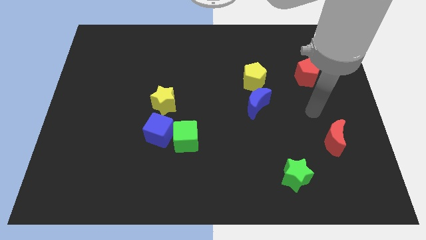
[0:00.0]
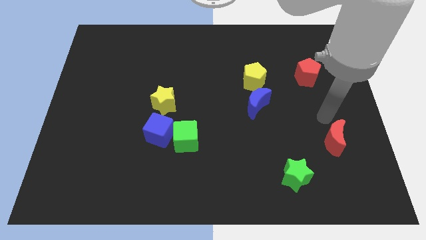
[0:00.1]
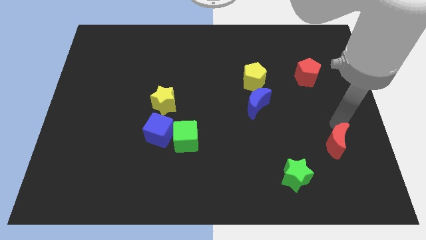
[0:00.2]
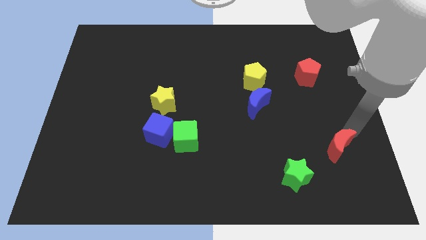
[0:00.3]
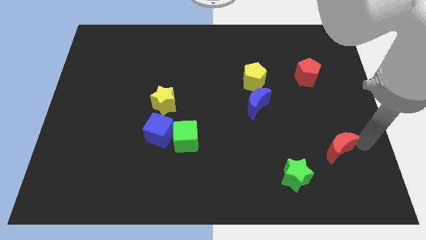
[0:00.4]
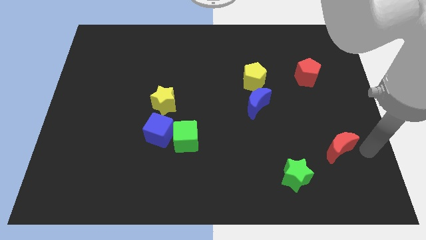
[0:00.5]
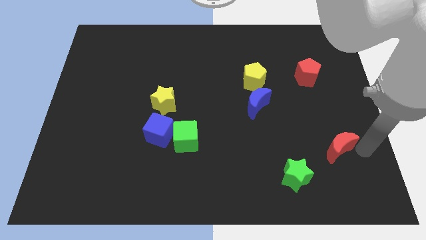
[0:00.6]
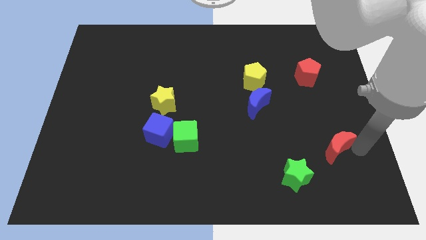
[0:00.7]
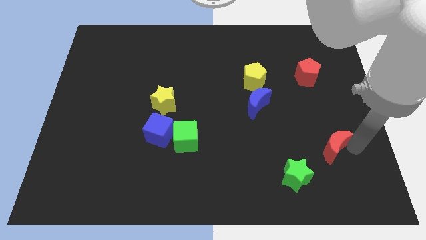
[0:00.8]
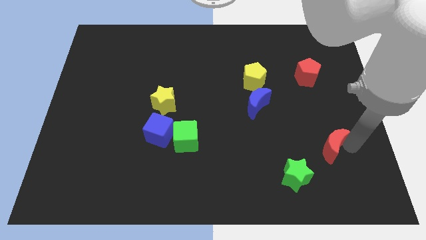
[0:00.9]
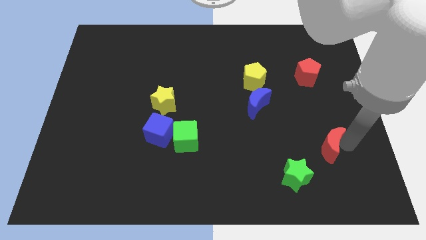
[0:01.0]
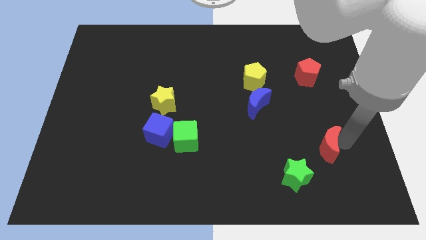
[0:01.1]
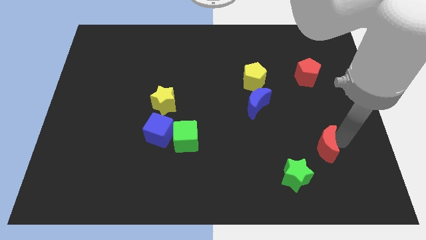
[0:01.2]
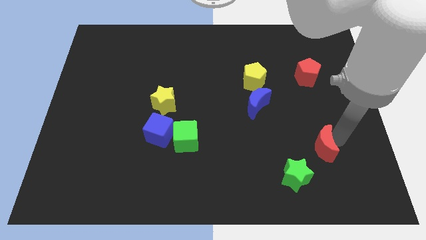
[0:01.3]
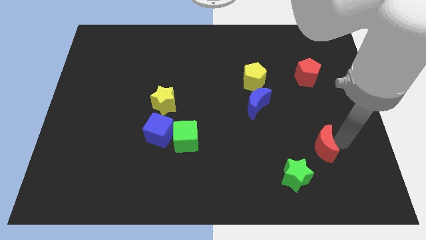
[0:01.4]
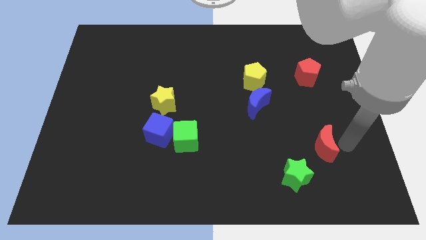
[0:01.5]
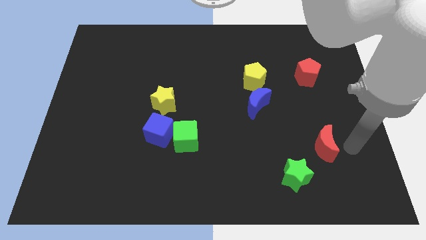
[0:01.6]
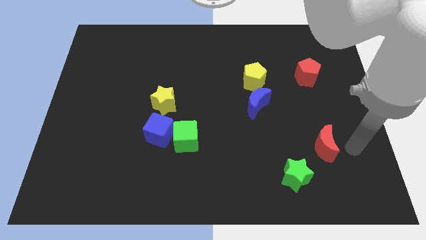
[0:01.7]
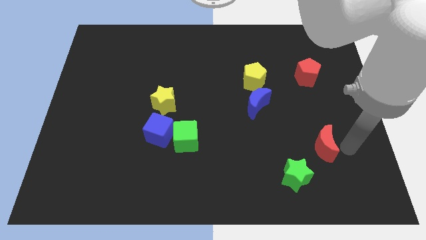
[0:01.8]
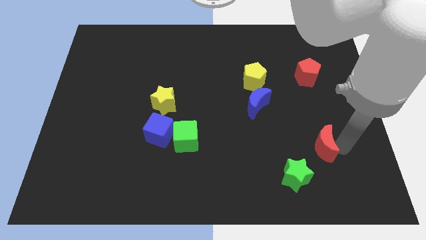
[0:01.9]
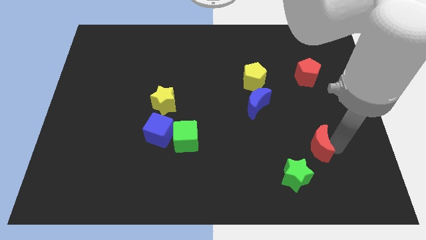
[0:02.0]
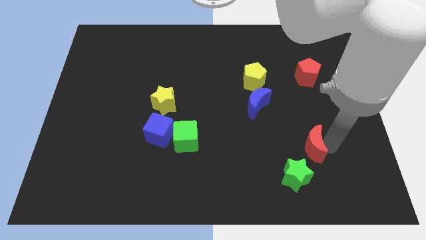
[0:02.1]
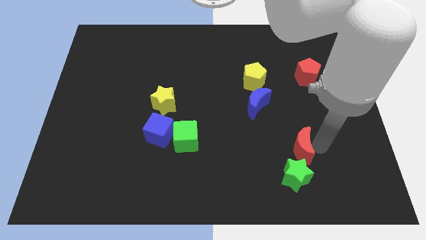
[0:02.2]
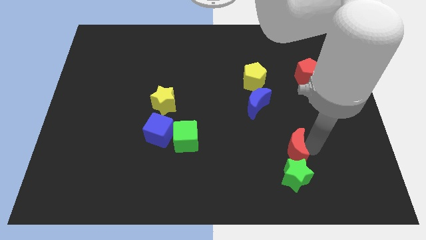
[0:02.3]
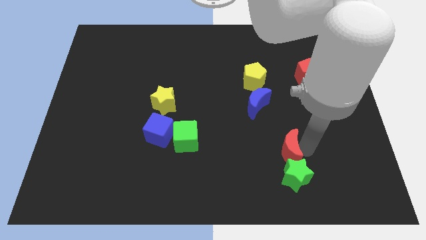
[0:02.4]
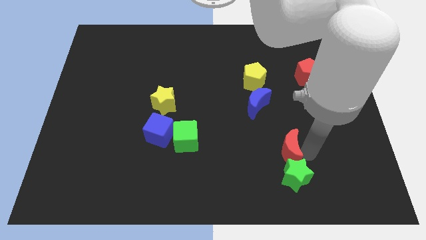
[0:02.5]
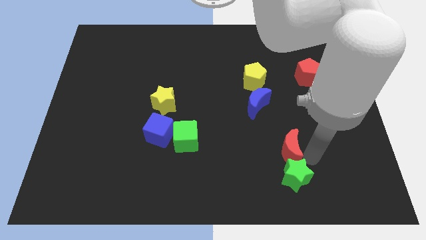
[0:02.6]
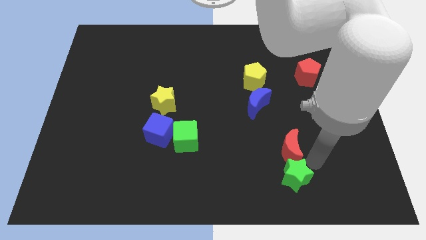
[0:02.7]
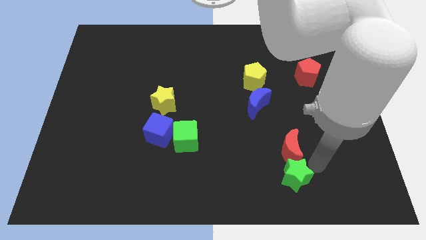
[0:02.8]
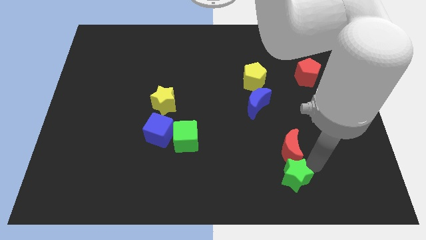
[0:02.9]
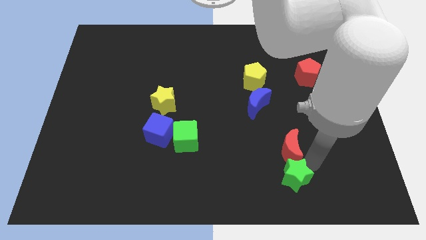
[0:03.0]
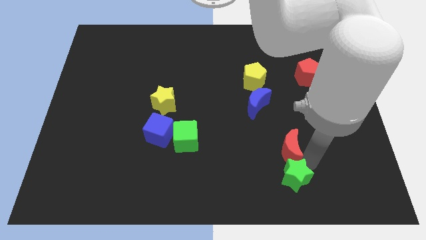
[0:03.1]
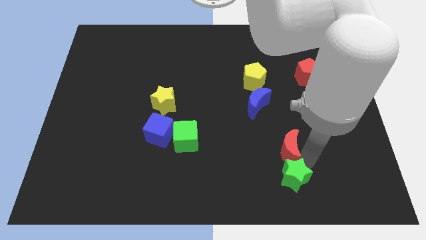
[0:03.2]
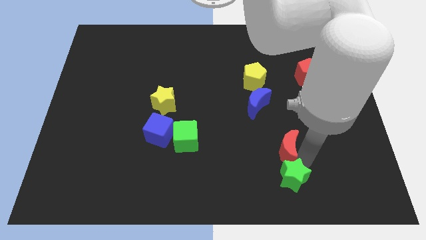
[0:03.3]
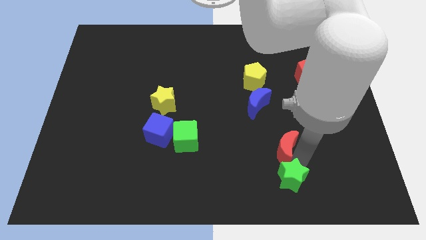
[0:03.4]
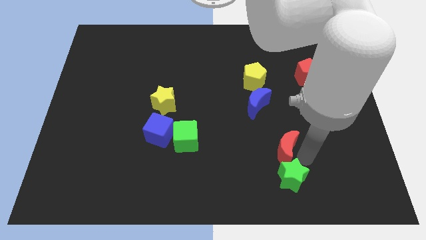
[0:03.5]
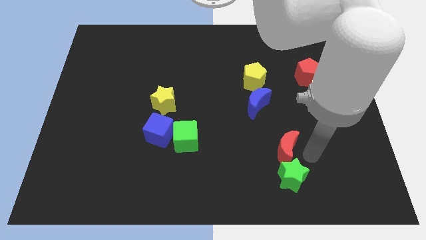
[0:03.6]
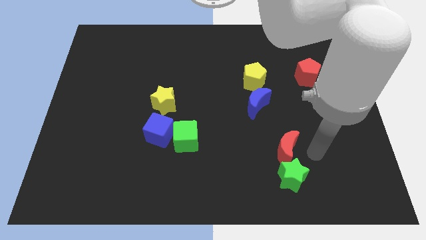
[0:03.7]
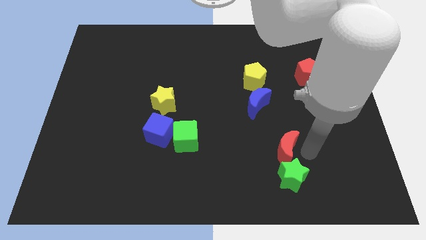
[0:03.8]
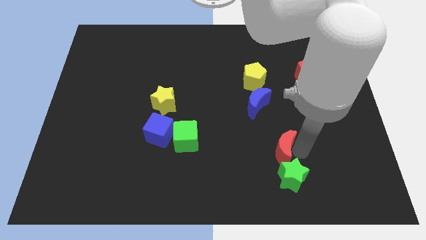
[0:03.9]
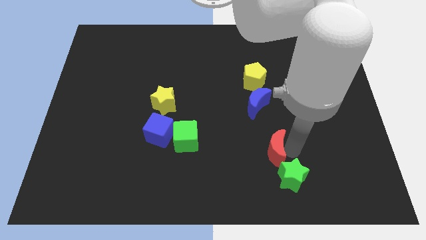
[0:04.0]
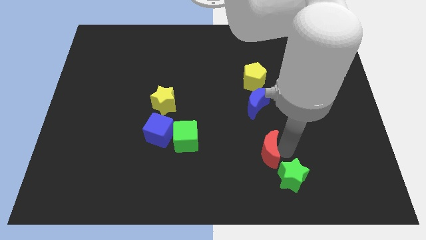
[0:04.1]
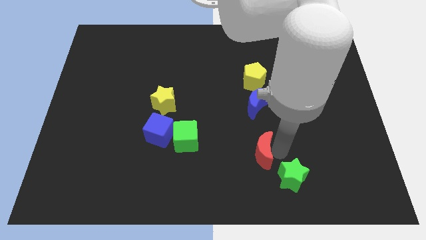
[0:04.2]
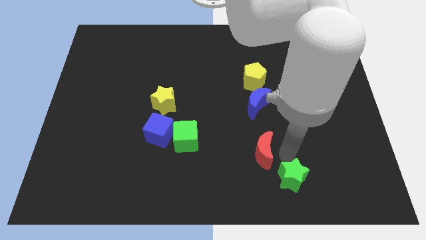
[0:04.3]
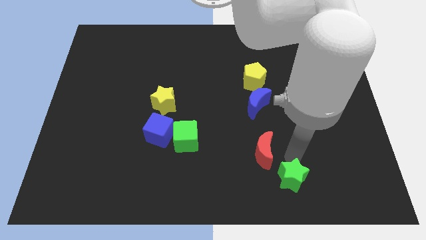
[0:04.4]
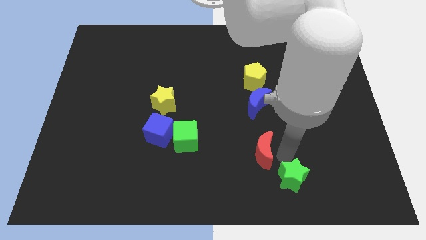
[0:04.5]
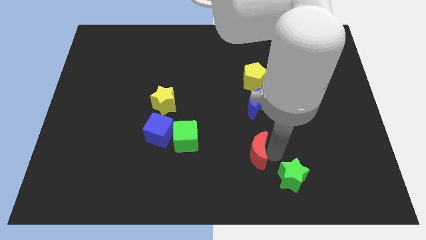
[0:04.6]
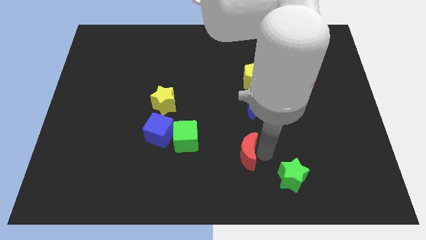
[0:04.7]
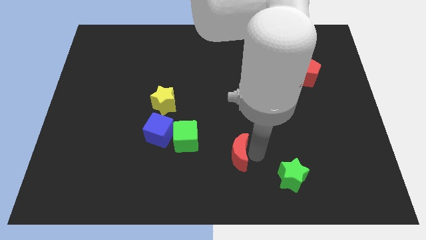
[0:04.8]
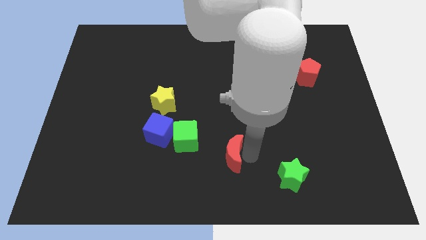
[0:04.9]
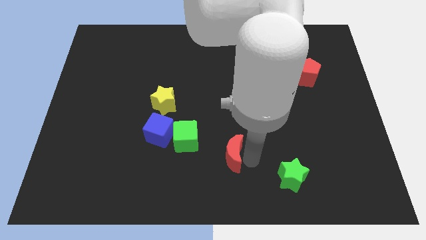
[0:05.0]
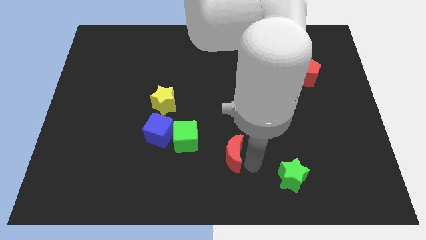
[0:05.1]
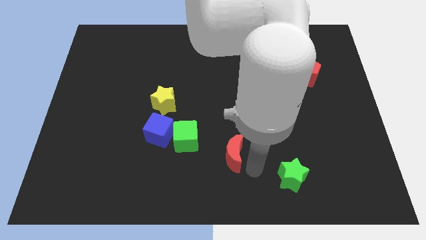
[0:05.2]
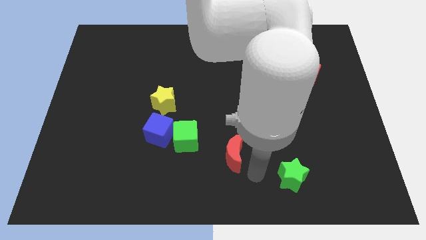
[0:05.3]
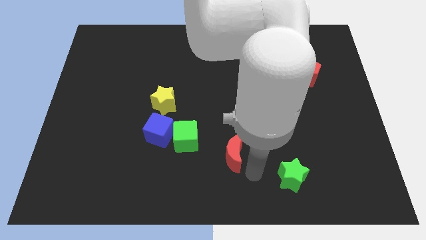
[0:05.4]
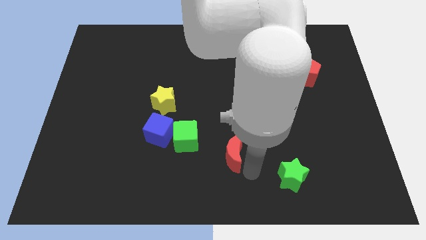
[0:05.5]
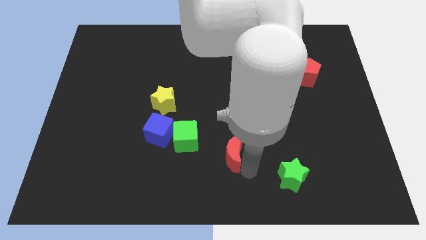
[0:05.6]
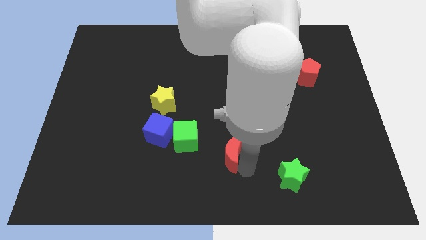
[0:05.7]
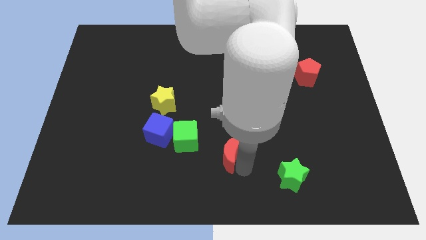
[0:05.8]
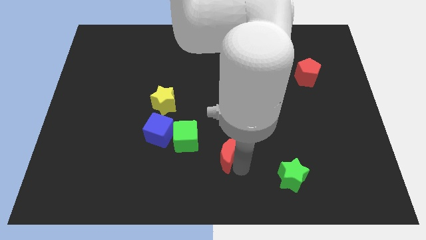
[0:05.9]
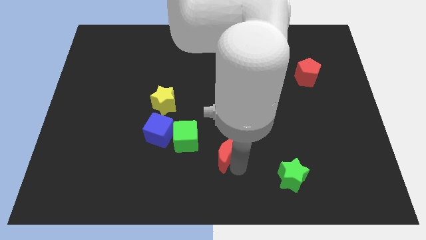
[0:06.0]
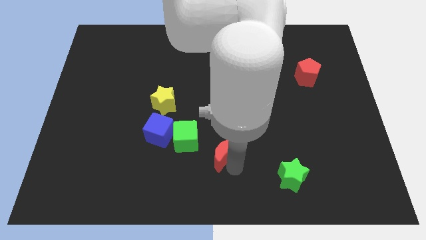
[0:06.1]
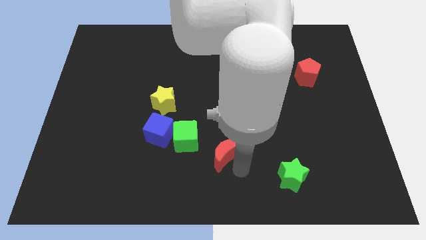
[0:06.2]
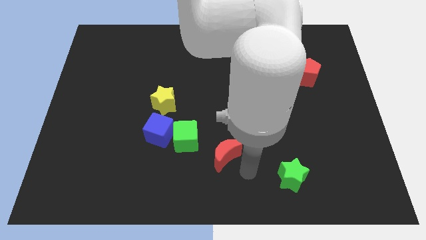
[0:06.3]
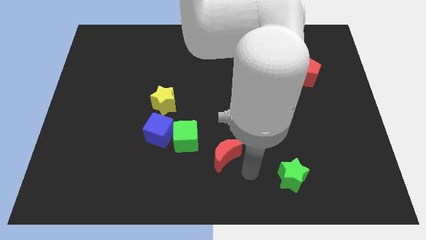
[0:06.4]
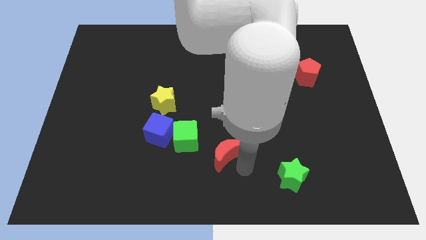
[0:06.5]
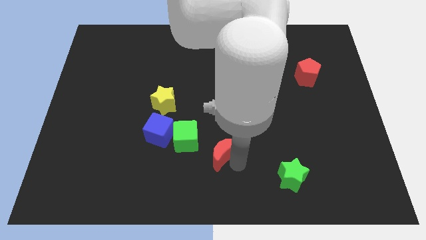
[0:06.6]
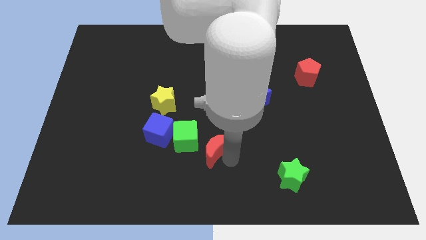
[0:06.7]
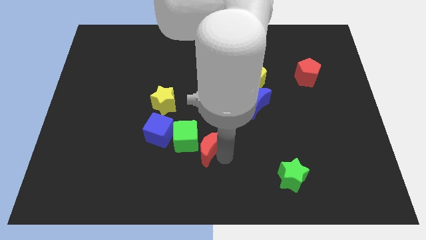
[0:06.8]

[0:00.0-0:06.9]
move the red moon next to the green cube

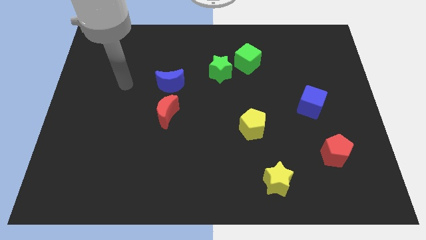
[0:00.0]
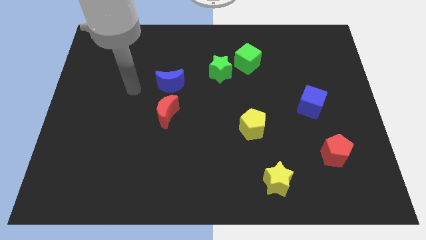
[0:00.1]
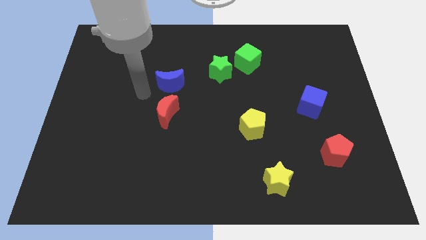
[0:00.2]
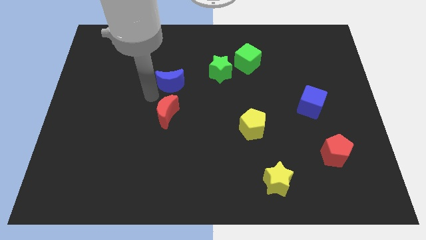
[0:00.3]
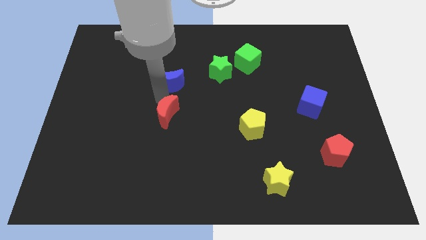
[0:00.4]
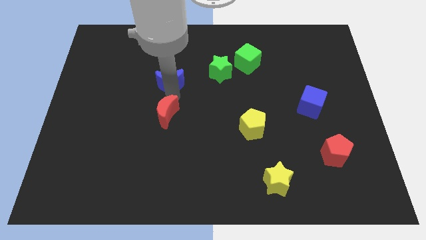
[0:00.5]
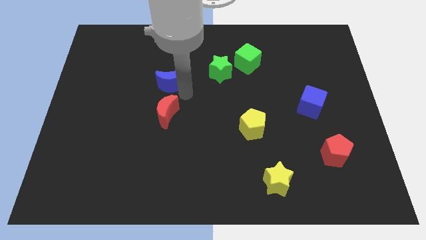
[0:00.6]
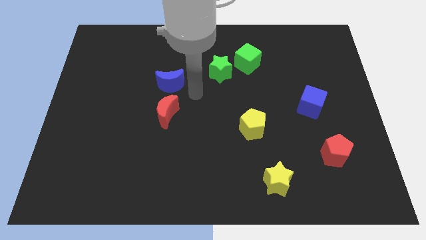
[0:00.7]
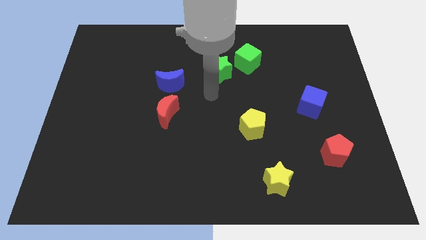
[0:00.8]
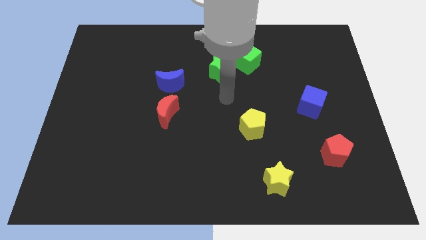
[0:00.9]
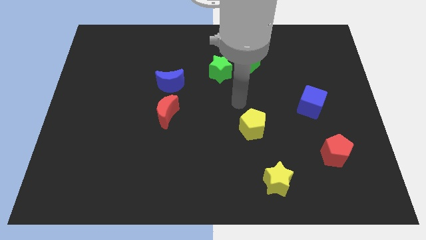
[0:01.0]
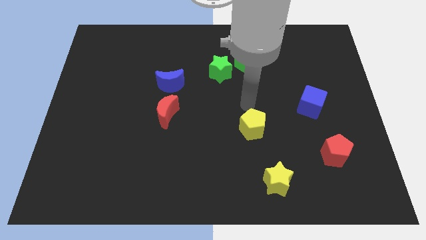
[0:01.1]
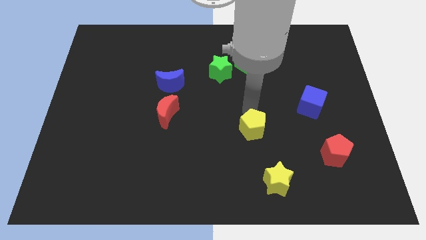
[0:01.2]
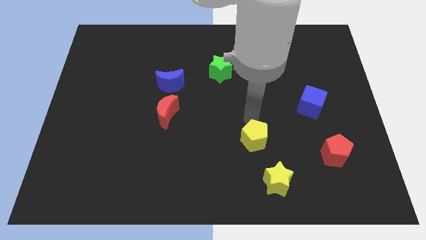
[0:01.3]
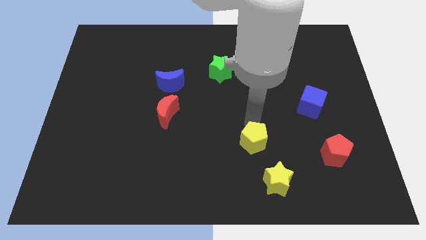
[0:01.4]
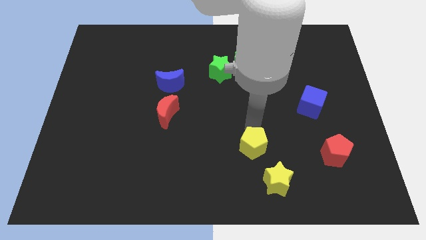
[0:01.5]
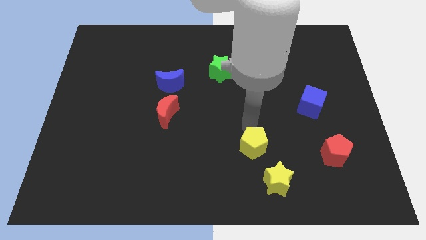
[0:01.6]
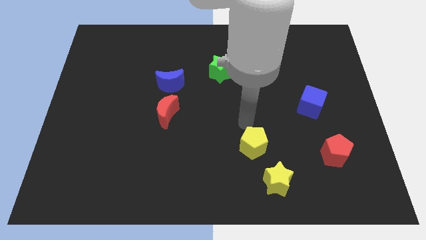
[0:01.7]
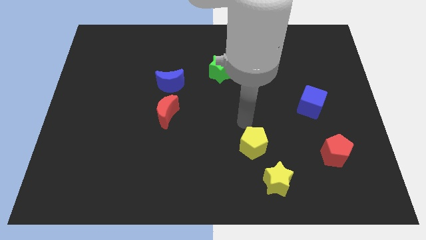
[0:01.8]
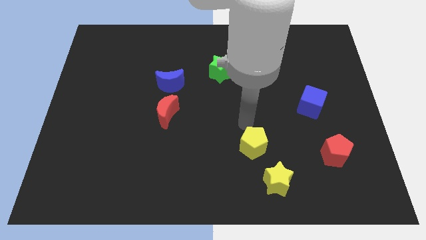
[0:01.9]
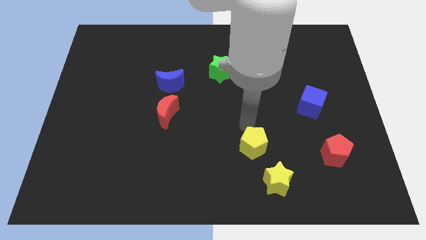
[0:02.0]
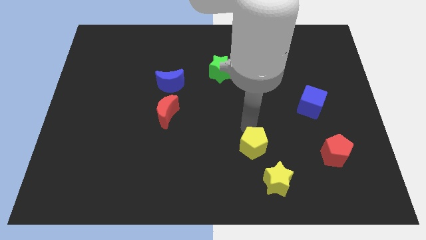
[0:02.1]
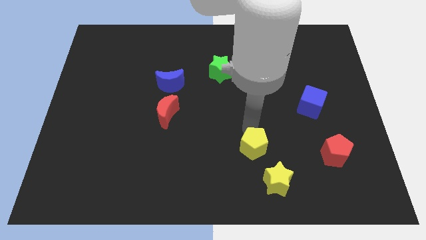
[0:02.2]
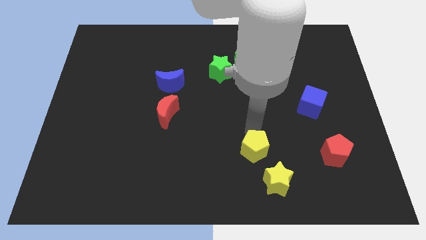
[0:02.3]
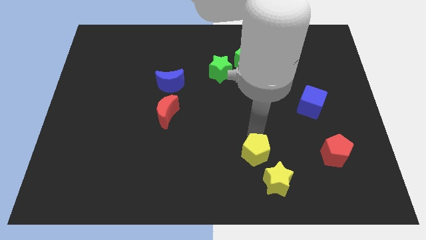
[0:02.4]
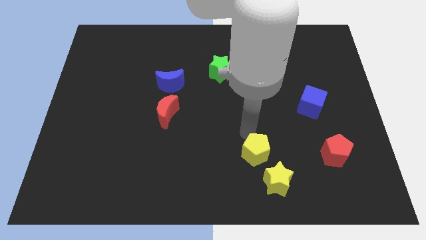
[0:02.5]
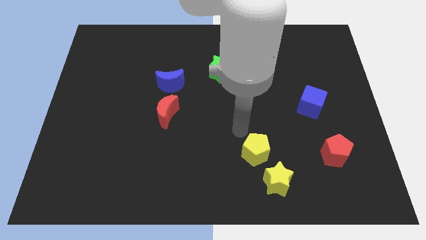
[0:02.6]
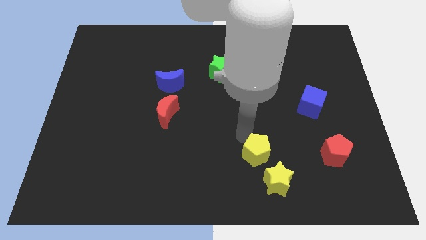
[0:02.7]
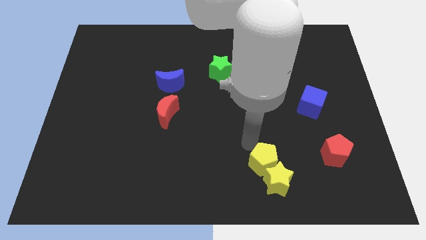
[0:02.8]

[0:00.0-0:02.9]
slide the yellow pentagon towards the yellow star
